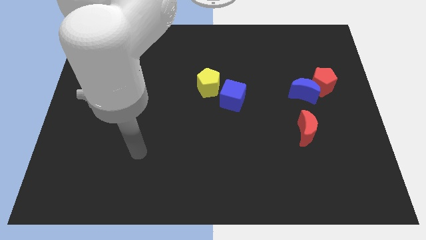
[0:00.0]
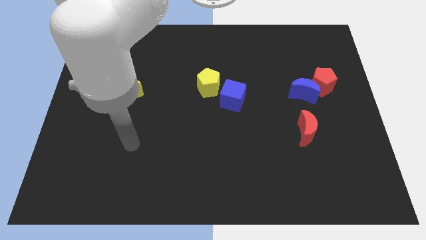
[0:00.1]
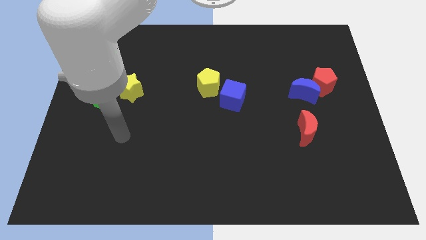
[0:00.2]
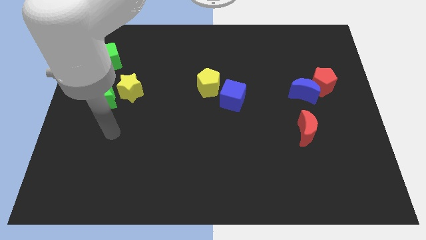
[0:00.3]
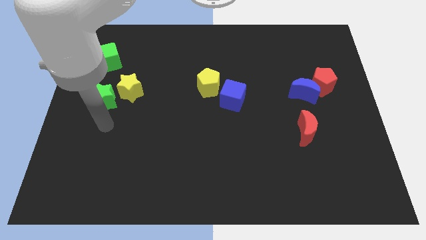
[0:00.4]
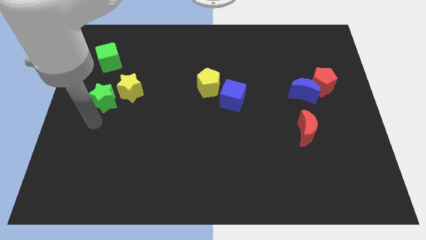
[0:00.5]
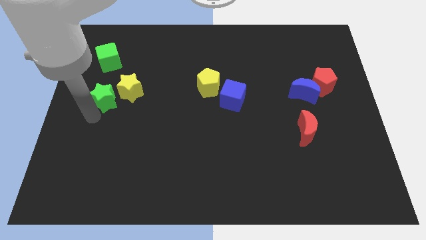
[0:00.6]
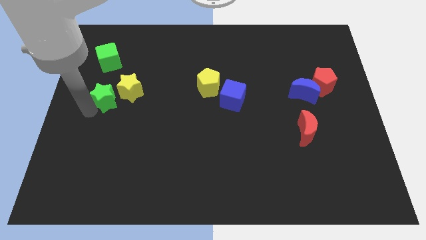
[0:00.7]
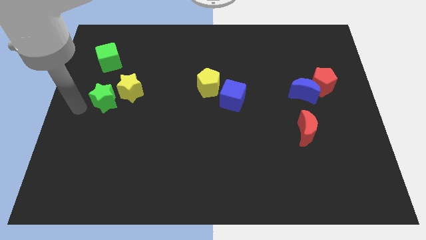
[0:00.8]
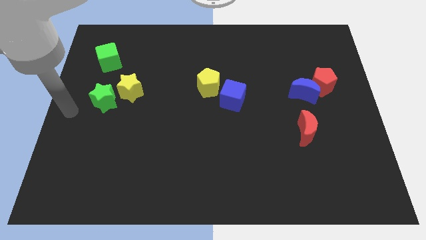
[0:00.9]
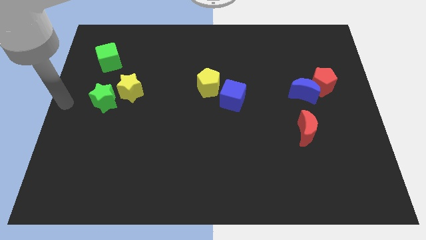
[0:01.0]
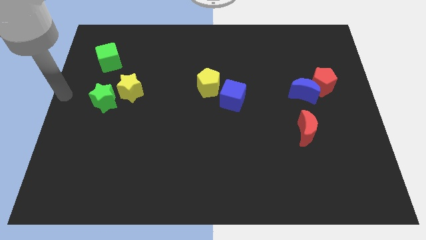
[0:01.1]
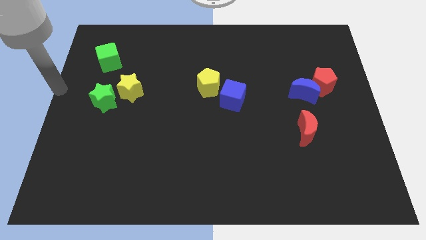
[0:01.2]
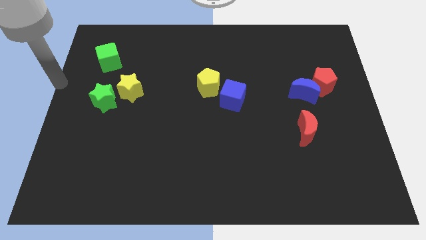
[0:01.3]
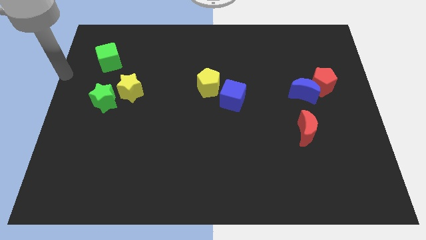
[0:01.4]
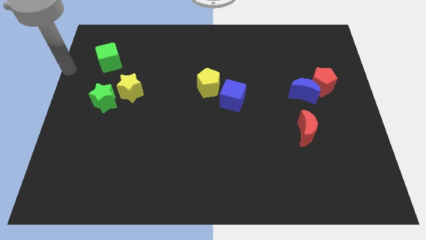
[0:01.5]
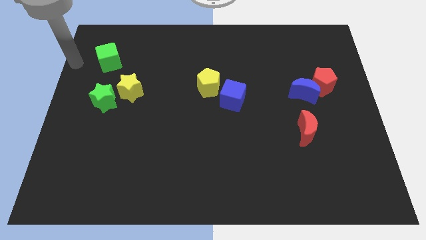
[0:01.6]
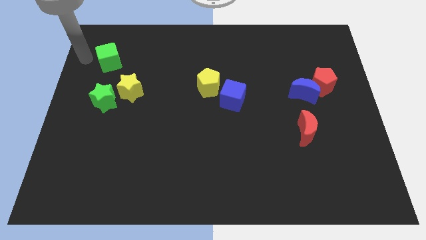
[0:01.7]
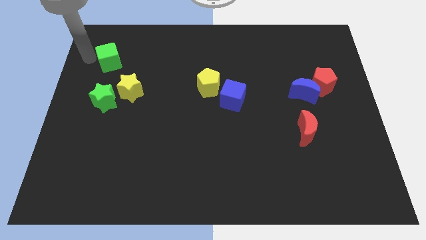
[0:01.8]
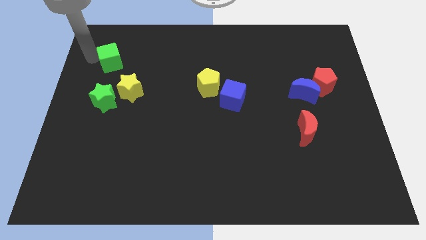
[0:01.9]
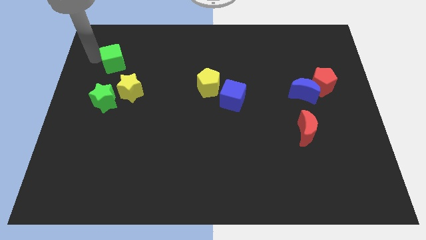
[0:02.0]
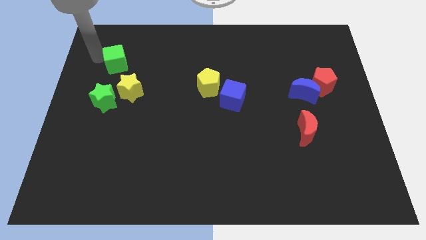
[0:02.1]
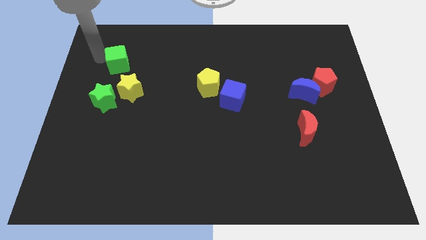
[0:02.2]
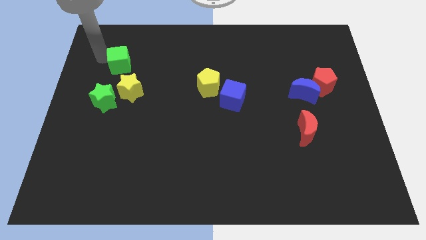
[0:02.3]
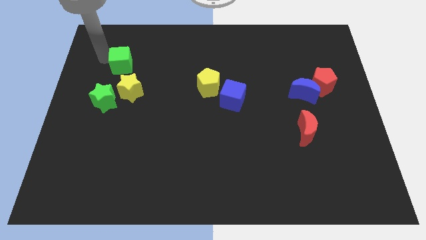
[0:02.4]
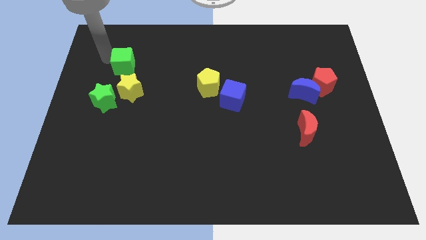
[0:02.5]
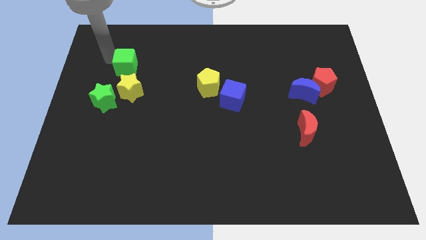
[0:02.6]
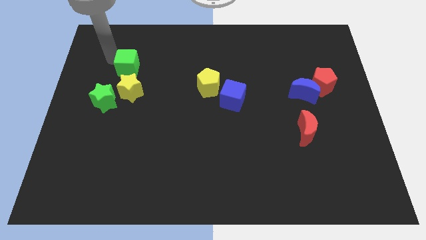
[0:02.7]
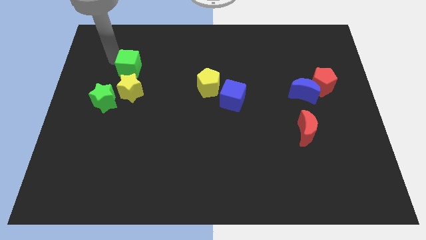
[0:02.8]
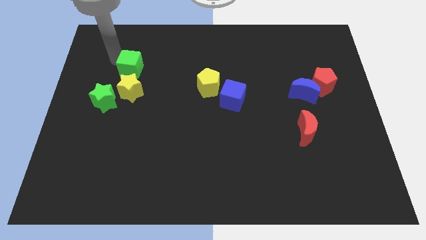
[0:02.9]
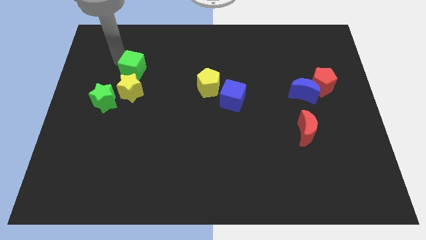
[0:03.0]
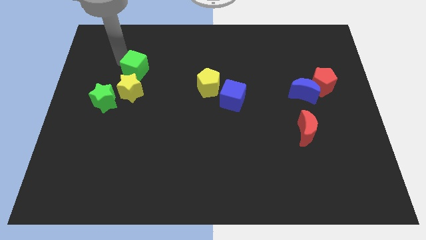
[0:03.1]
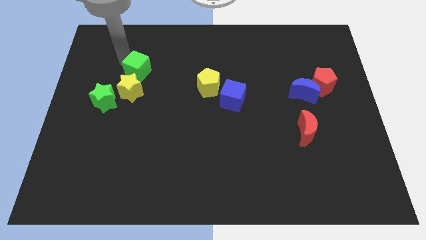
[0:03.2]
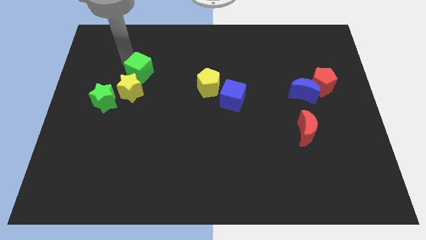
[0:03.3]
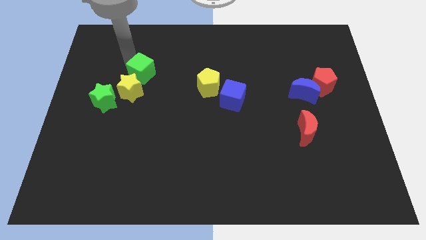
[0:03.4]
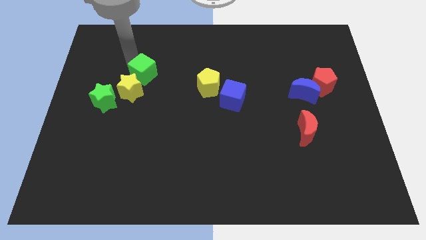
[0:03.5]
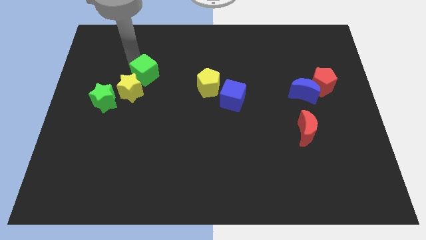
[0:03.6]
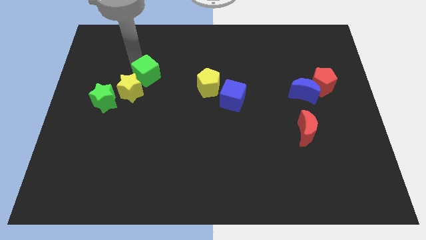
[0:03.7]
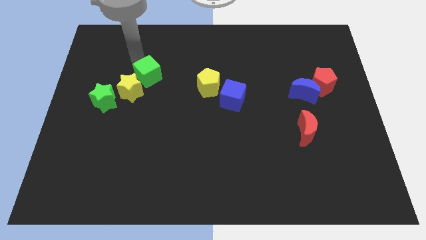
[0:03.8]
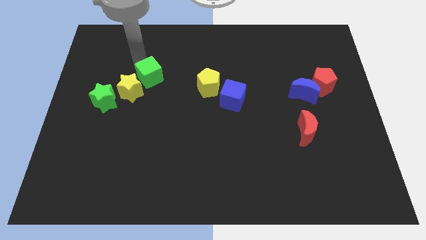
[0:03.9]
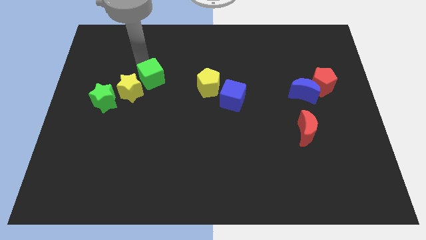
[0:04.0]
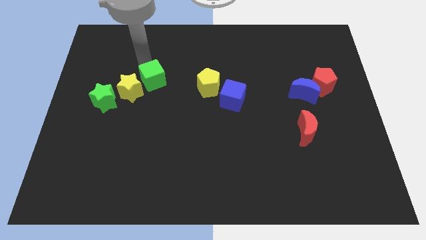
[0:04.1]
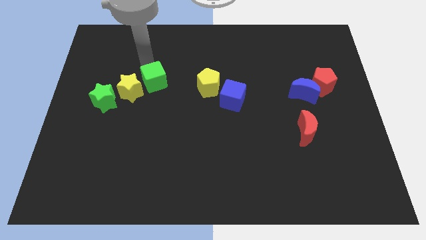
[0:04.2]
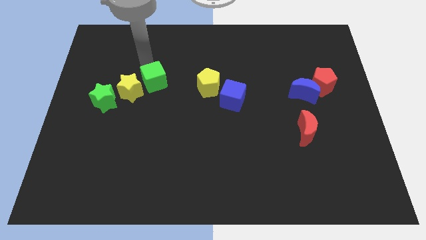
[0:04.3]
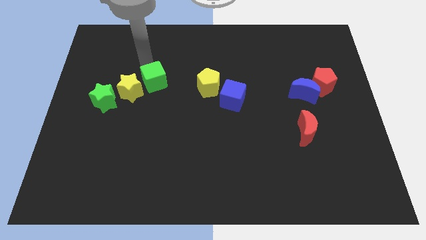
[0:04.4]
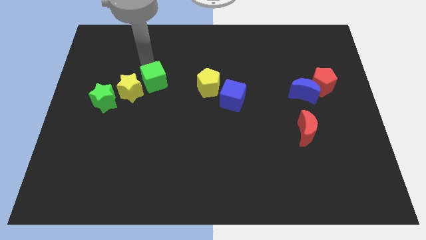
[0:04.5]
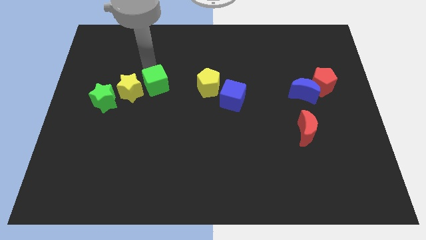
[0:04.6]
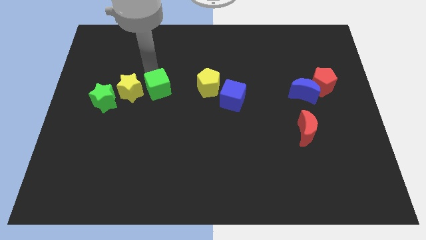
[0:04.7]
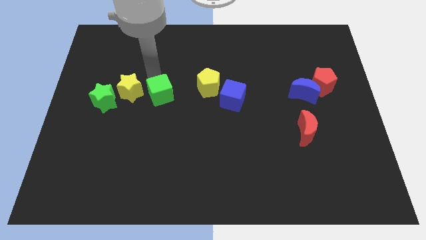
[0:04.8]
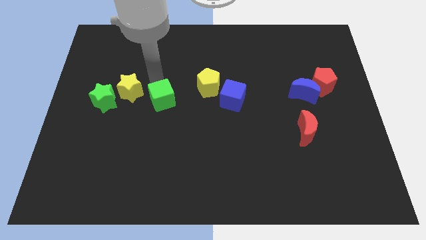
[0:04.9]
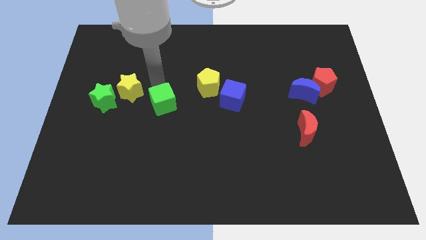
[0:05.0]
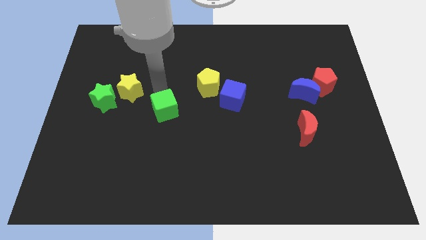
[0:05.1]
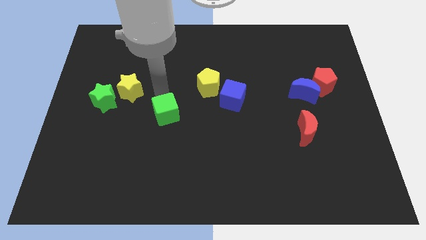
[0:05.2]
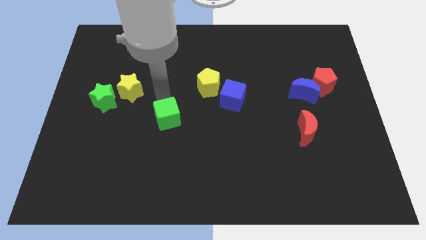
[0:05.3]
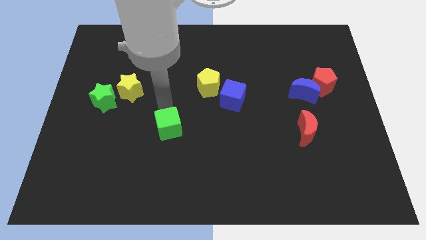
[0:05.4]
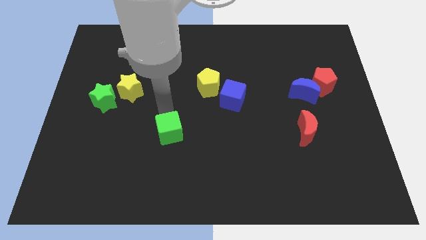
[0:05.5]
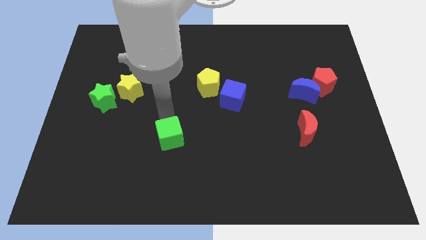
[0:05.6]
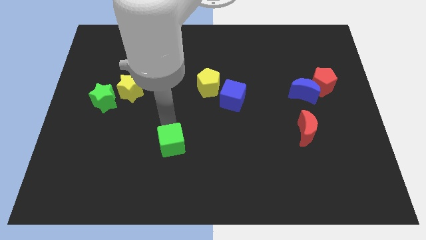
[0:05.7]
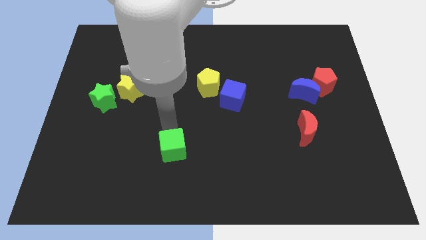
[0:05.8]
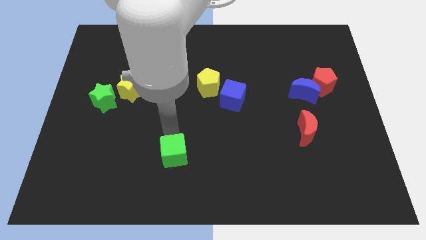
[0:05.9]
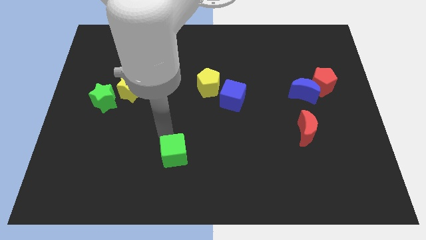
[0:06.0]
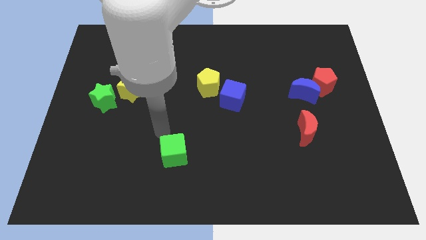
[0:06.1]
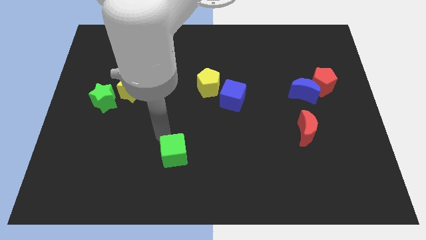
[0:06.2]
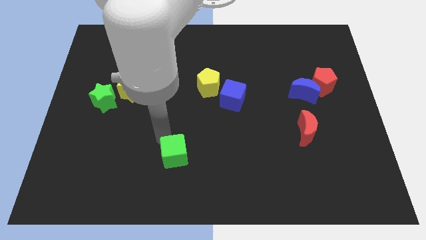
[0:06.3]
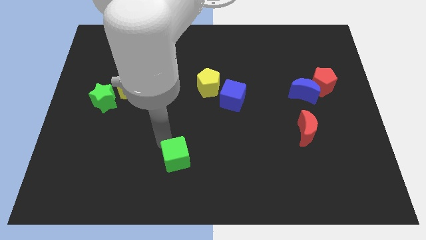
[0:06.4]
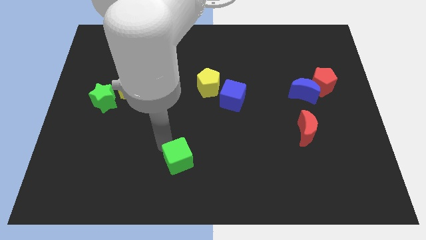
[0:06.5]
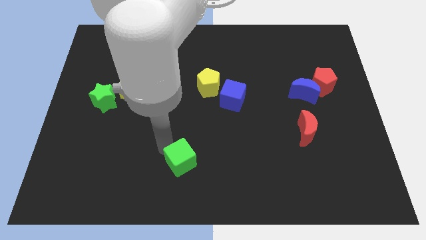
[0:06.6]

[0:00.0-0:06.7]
put the green cube to the bottom
